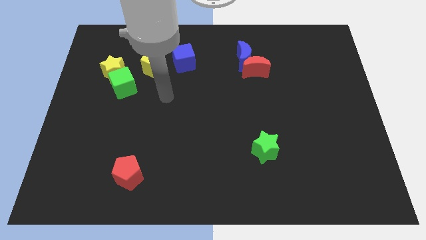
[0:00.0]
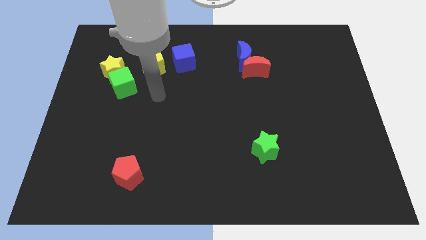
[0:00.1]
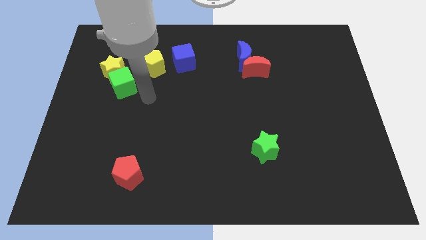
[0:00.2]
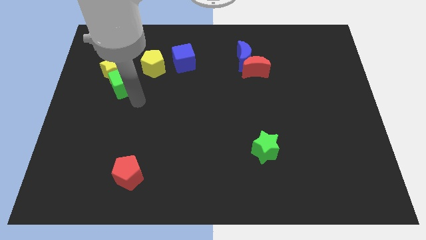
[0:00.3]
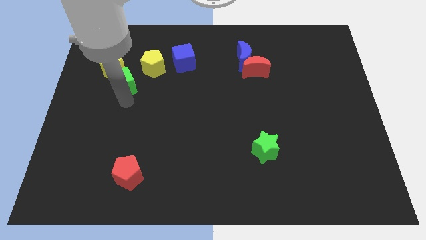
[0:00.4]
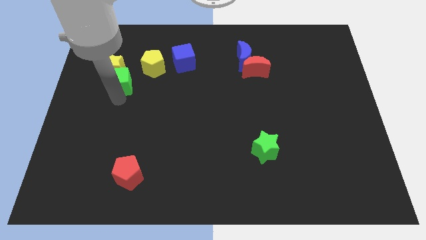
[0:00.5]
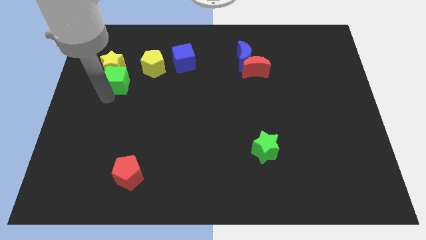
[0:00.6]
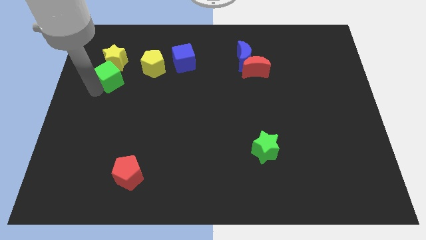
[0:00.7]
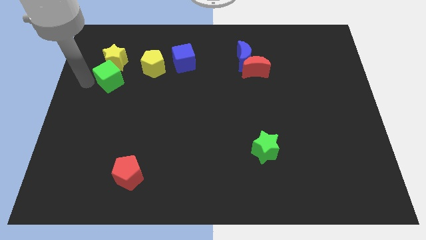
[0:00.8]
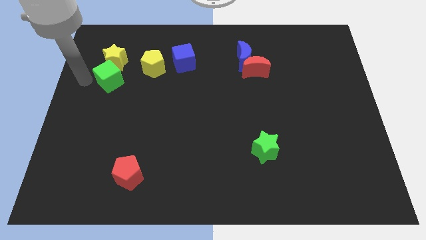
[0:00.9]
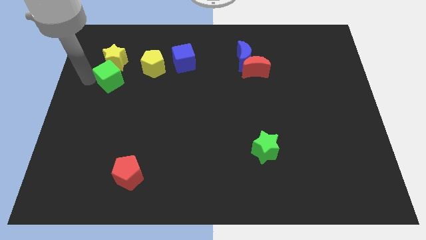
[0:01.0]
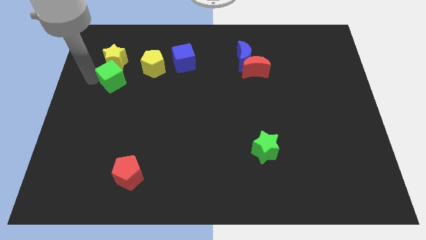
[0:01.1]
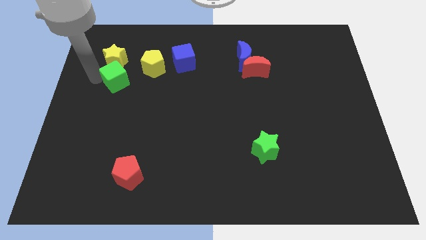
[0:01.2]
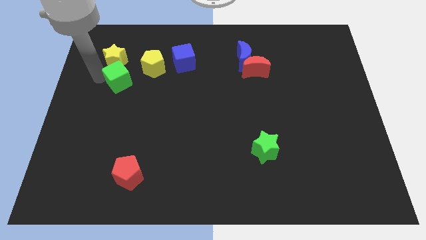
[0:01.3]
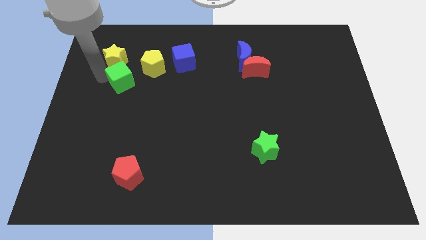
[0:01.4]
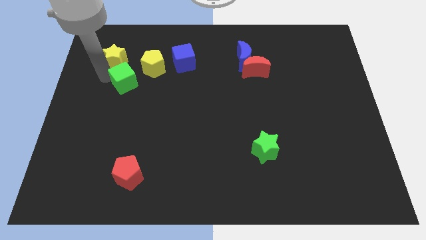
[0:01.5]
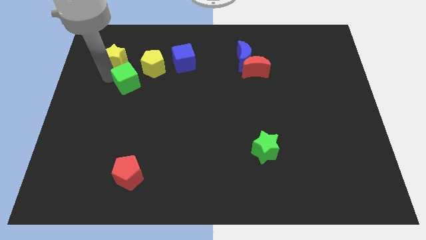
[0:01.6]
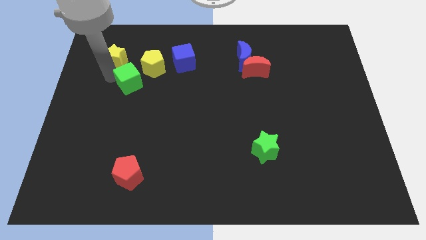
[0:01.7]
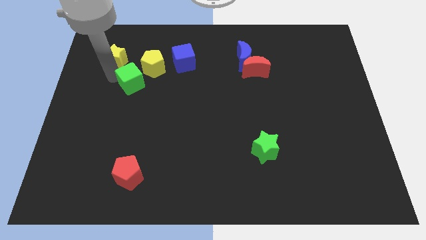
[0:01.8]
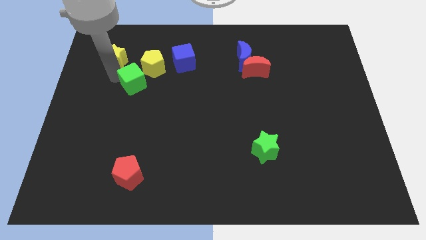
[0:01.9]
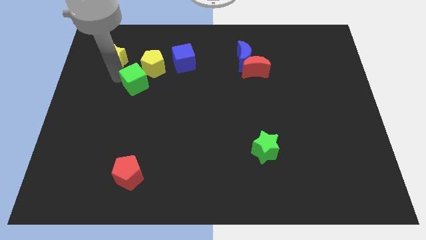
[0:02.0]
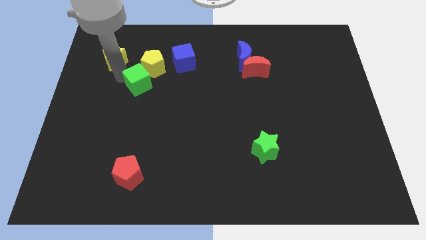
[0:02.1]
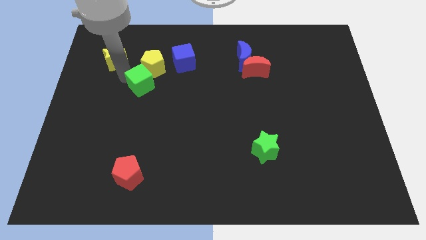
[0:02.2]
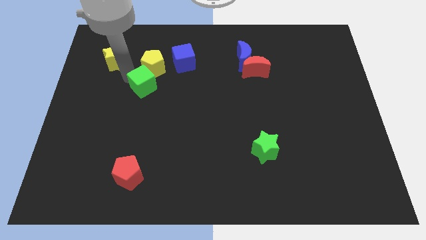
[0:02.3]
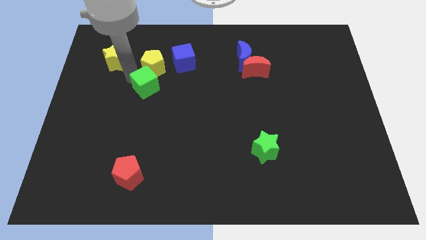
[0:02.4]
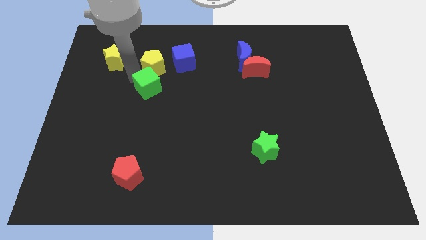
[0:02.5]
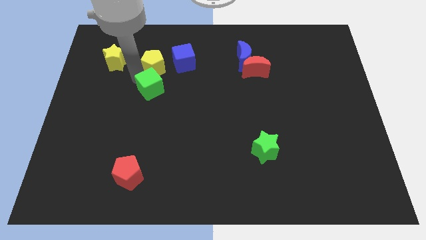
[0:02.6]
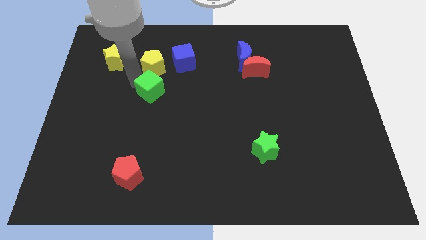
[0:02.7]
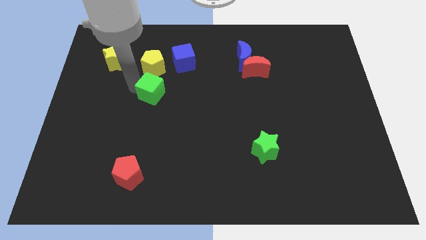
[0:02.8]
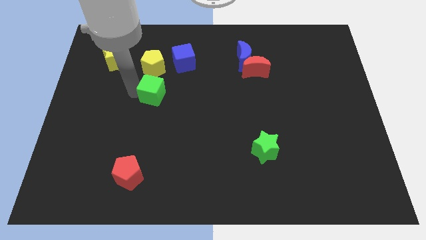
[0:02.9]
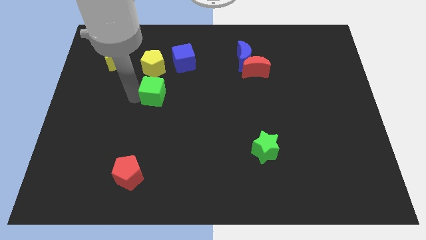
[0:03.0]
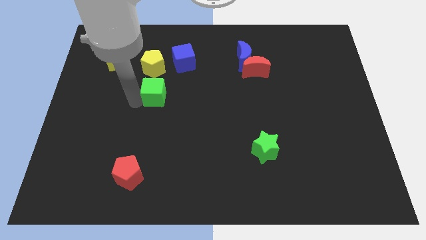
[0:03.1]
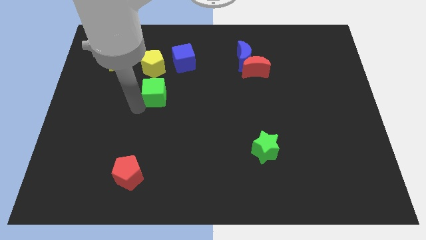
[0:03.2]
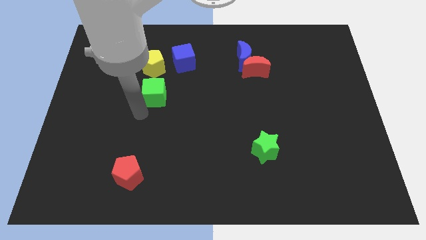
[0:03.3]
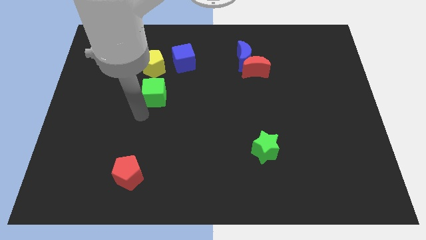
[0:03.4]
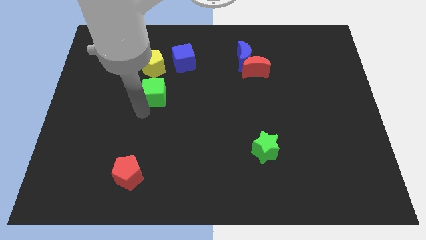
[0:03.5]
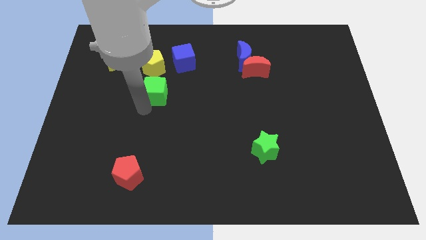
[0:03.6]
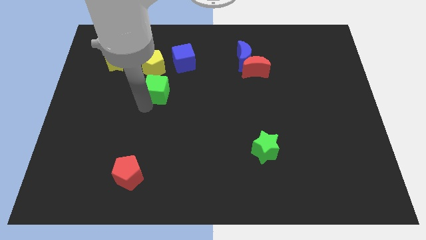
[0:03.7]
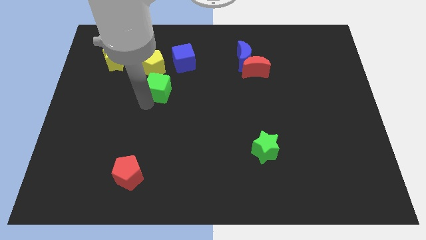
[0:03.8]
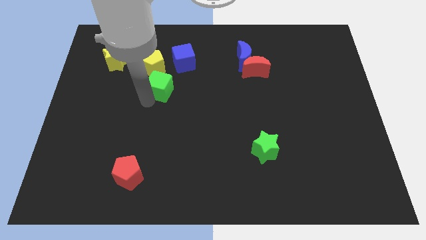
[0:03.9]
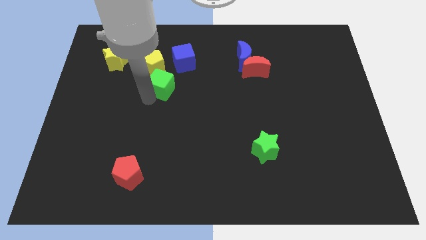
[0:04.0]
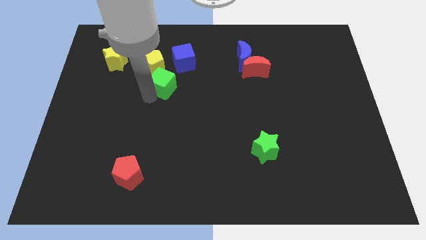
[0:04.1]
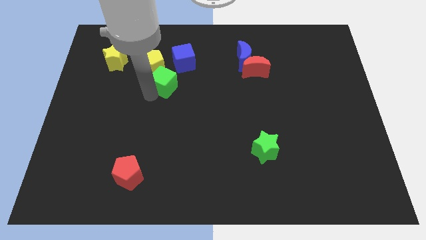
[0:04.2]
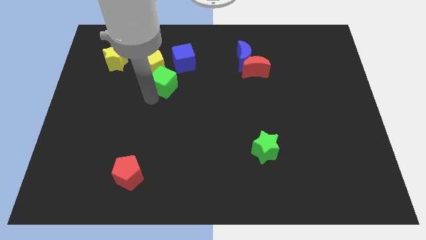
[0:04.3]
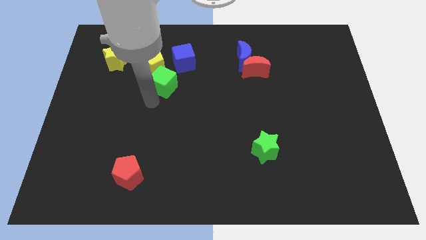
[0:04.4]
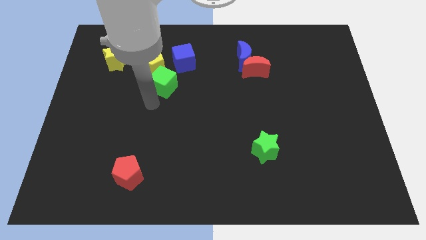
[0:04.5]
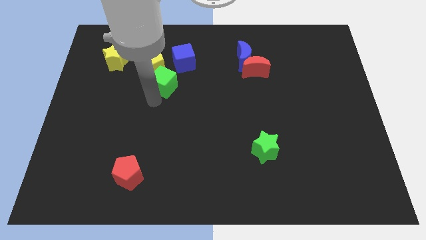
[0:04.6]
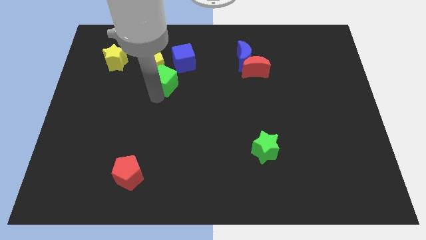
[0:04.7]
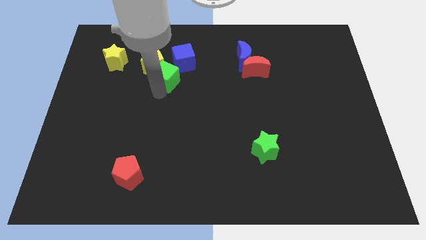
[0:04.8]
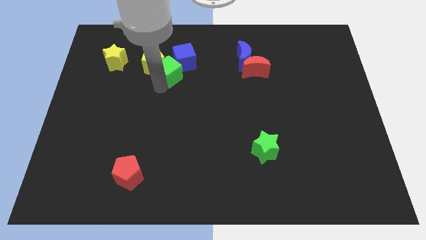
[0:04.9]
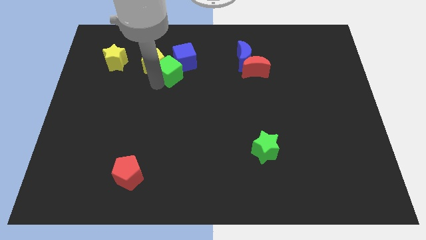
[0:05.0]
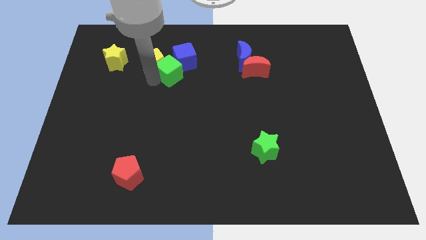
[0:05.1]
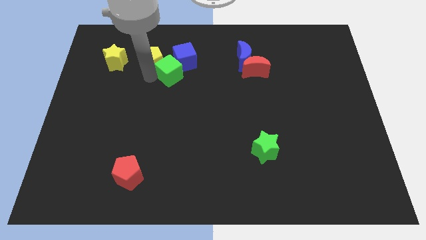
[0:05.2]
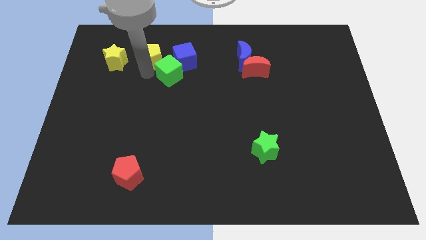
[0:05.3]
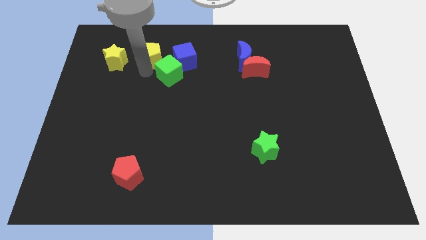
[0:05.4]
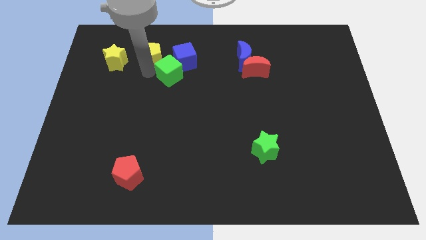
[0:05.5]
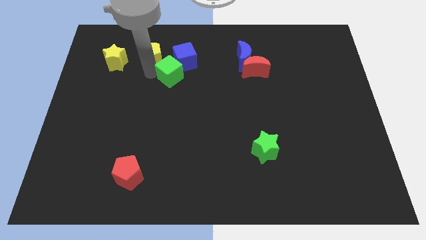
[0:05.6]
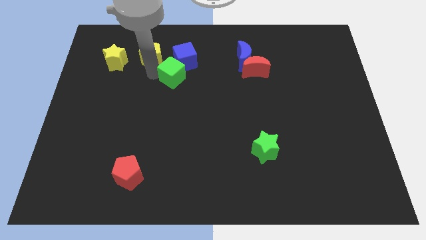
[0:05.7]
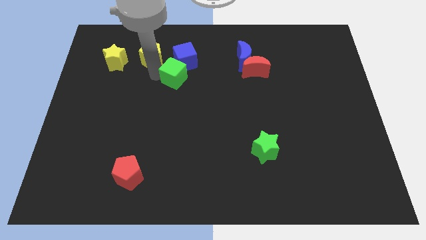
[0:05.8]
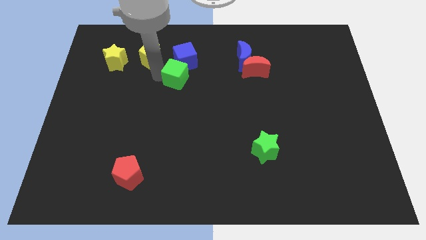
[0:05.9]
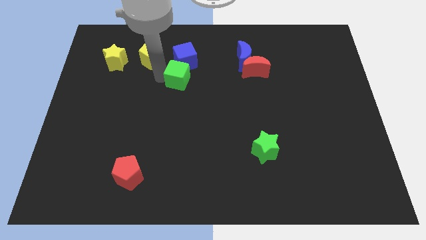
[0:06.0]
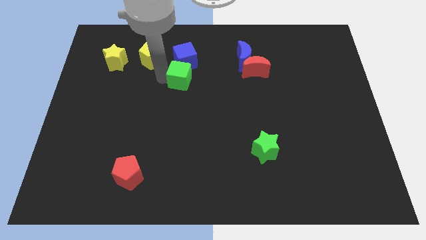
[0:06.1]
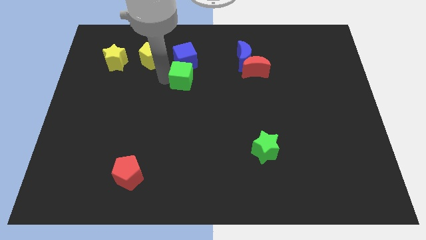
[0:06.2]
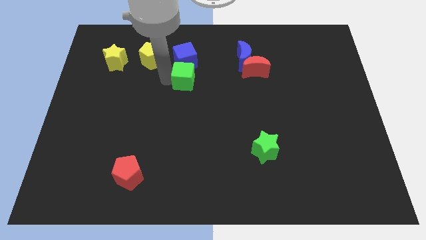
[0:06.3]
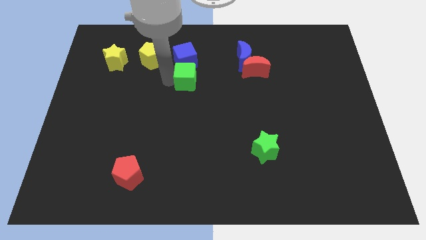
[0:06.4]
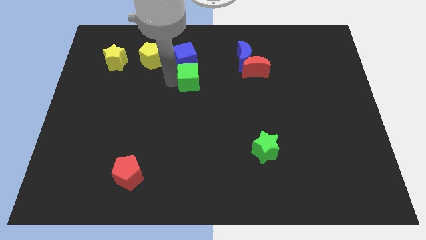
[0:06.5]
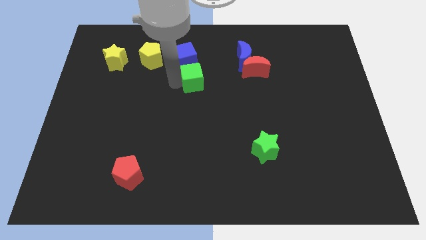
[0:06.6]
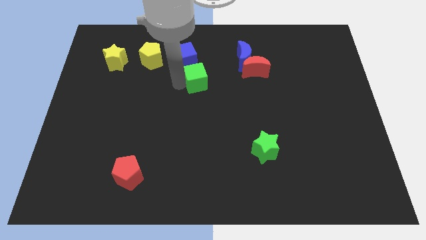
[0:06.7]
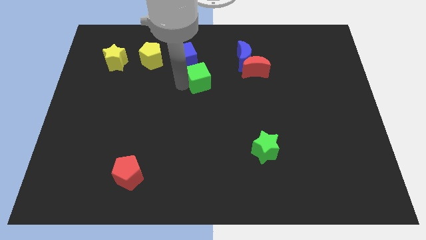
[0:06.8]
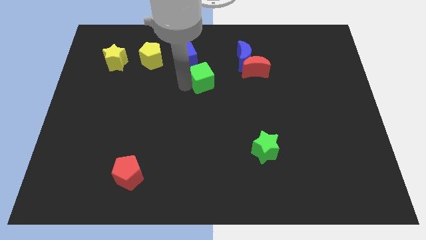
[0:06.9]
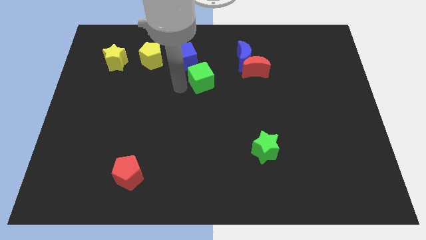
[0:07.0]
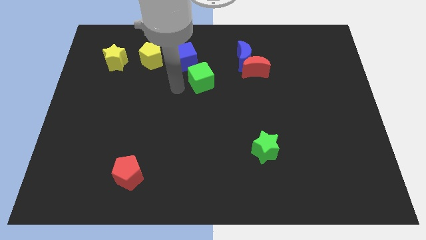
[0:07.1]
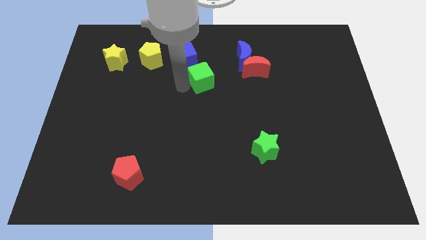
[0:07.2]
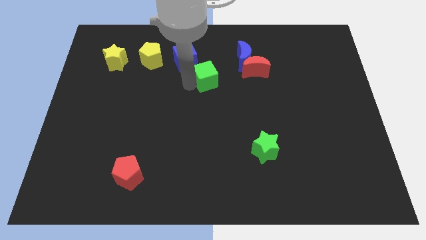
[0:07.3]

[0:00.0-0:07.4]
move the green cube diagonally down and to the left of the blue moon

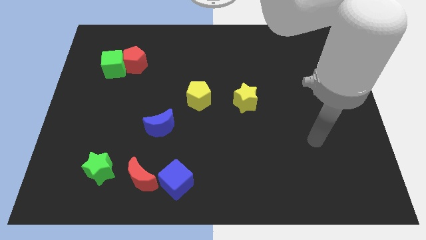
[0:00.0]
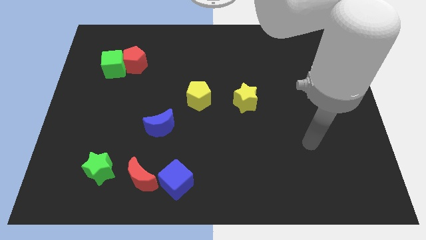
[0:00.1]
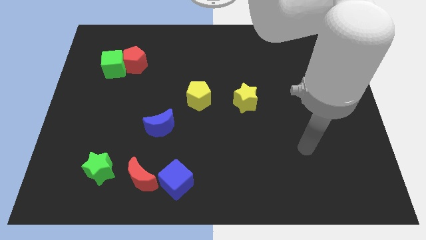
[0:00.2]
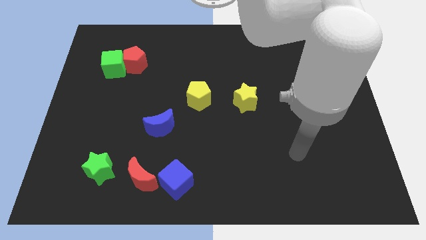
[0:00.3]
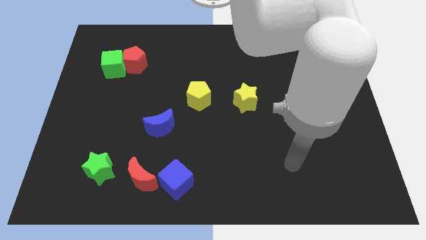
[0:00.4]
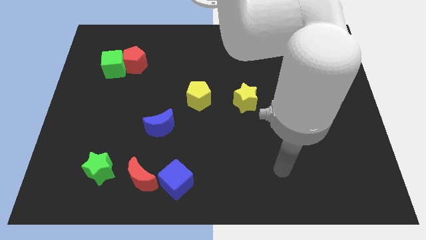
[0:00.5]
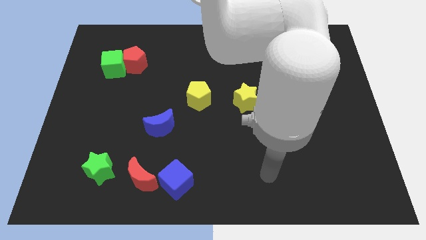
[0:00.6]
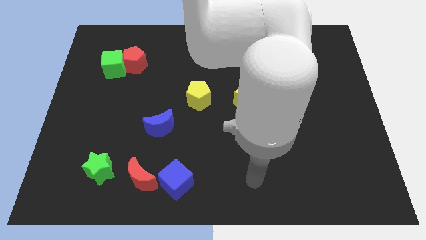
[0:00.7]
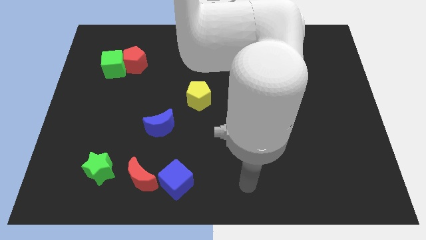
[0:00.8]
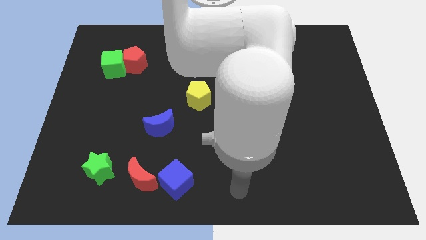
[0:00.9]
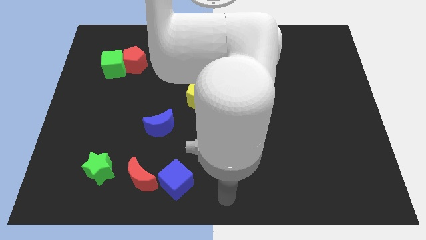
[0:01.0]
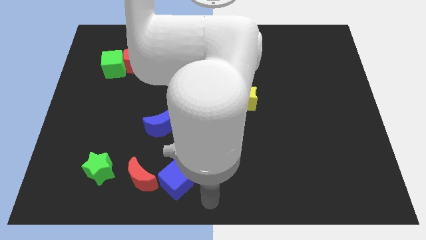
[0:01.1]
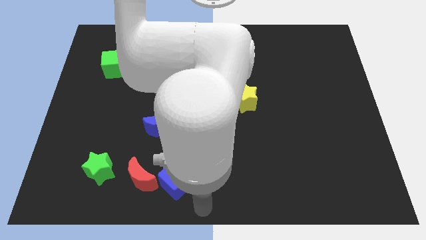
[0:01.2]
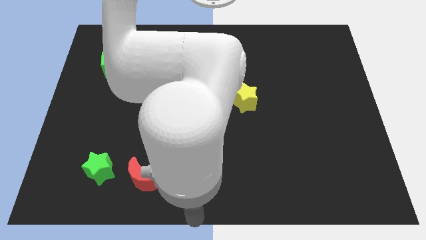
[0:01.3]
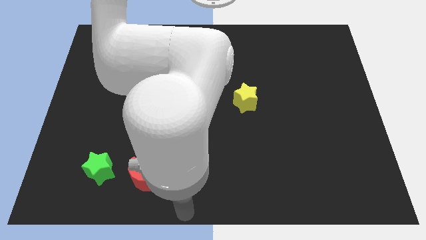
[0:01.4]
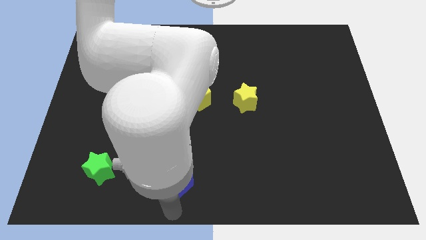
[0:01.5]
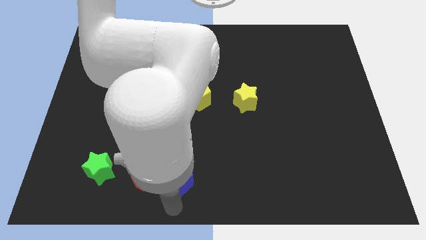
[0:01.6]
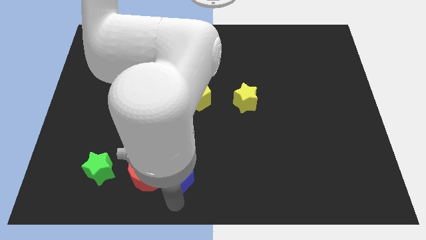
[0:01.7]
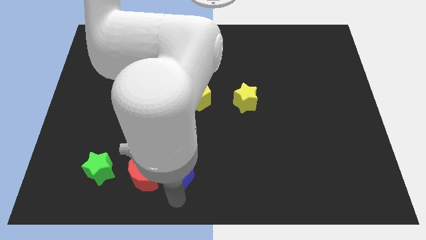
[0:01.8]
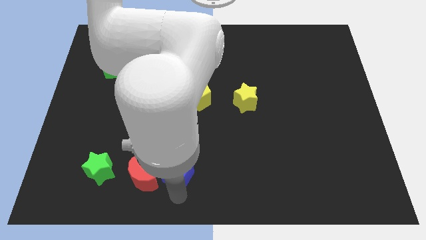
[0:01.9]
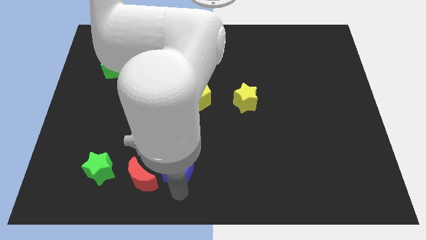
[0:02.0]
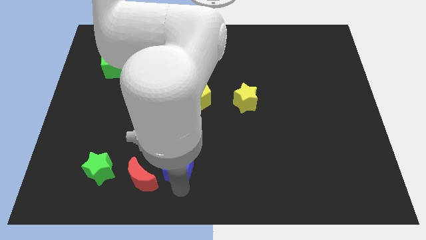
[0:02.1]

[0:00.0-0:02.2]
push the blue cube to the bottom right side of the blue moon
